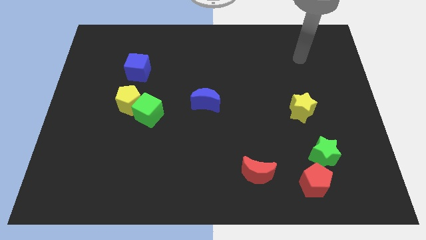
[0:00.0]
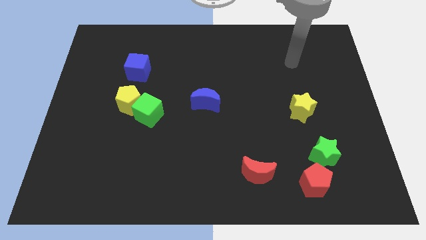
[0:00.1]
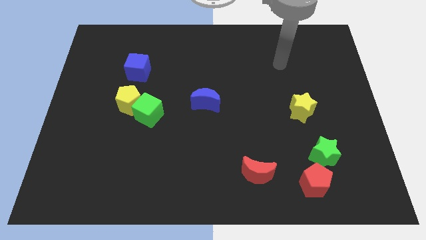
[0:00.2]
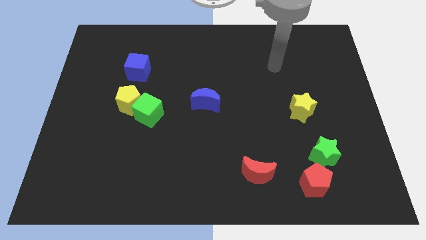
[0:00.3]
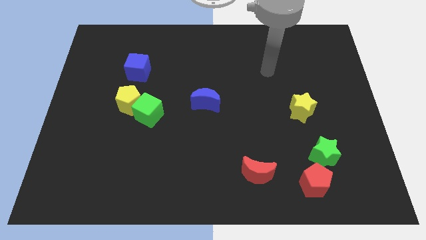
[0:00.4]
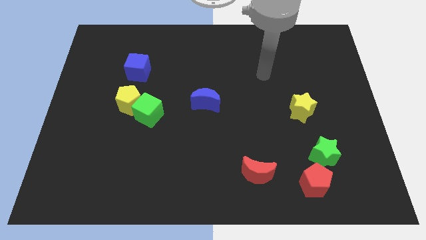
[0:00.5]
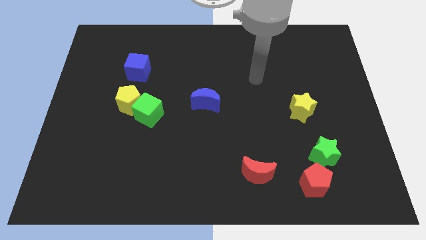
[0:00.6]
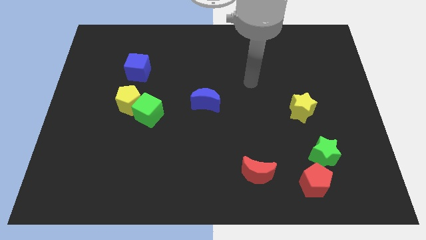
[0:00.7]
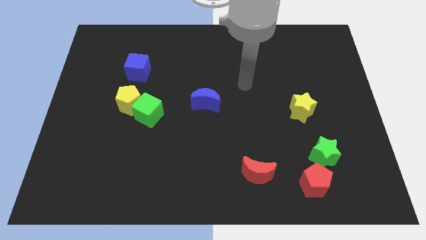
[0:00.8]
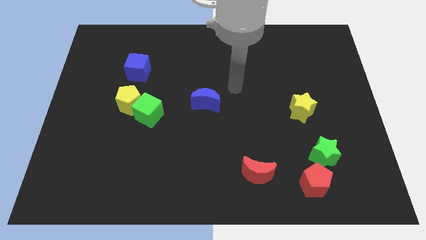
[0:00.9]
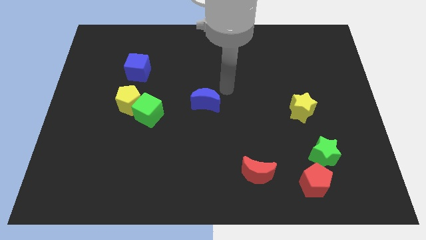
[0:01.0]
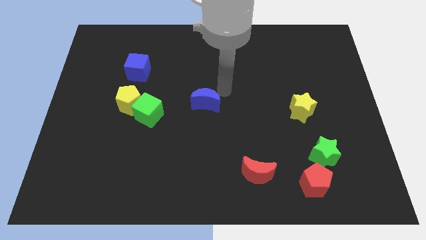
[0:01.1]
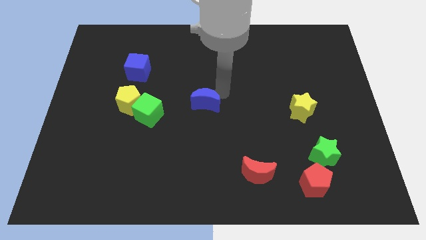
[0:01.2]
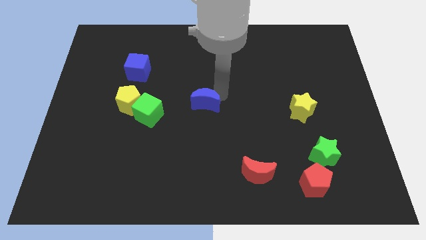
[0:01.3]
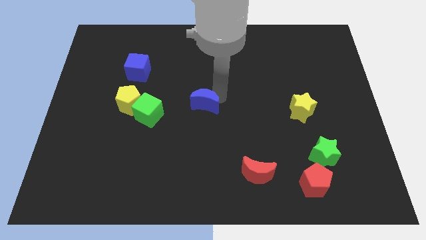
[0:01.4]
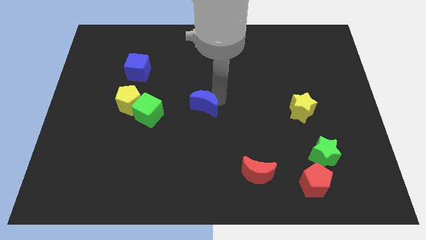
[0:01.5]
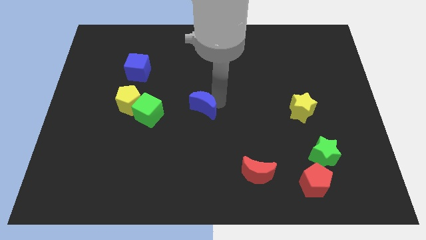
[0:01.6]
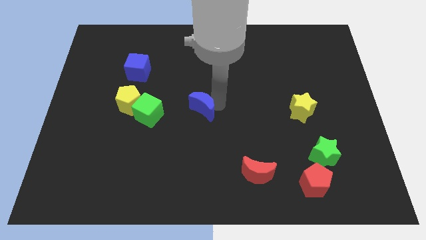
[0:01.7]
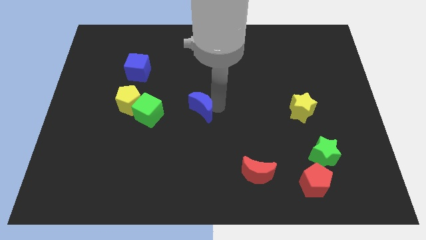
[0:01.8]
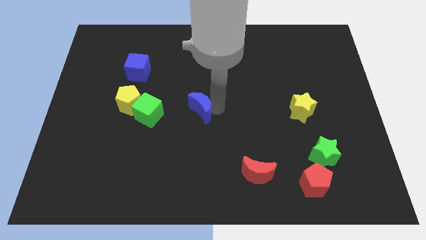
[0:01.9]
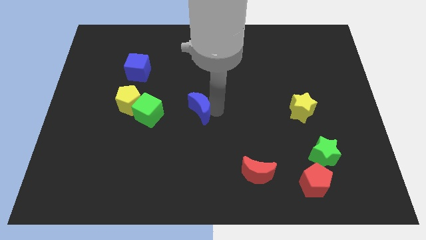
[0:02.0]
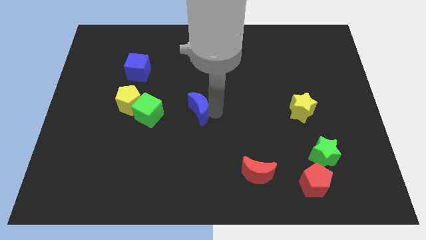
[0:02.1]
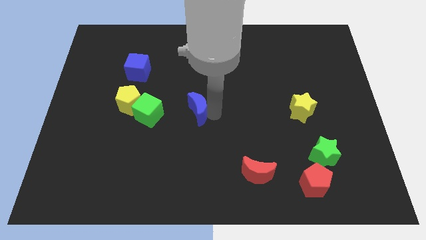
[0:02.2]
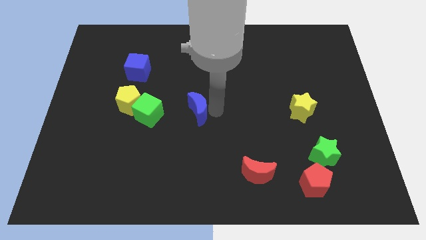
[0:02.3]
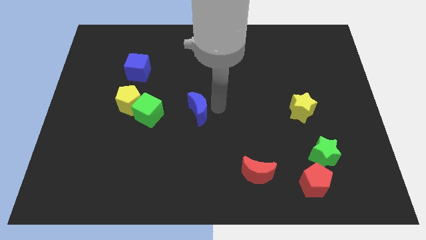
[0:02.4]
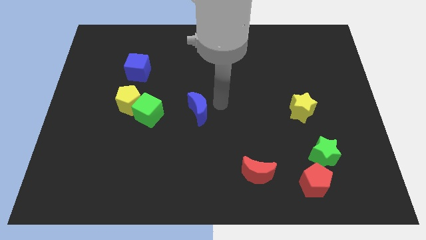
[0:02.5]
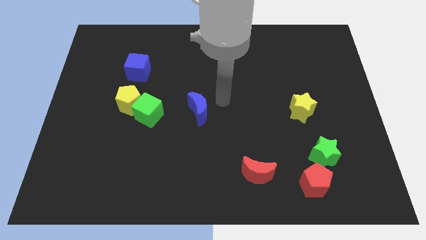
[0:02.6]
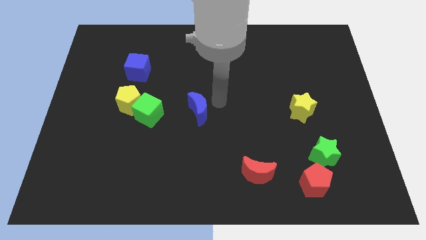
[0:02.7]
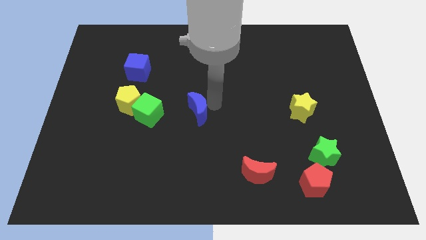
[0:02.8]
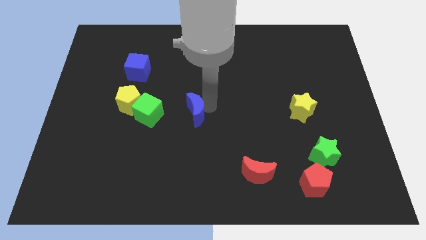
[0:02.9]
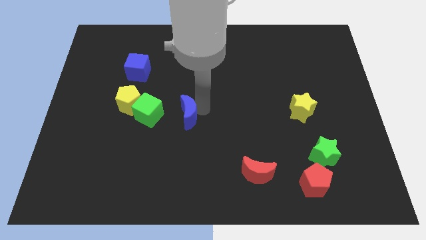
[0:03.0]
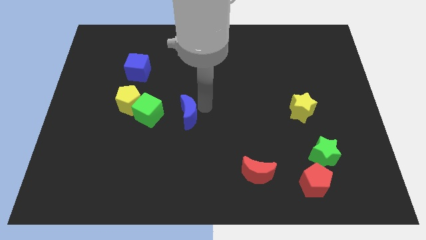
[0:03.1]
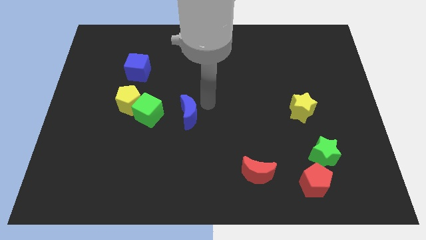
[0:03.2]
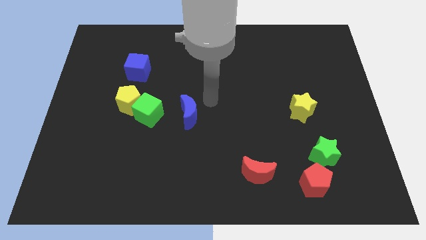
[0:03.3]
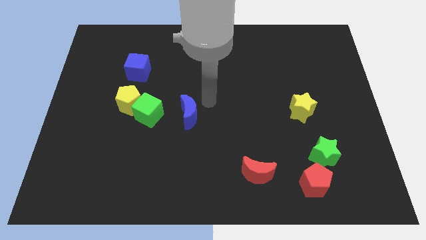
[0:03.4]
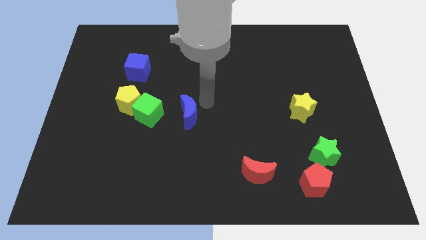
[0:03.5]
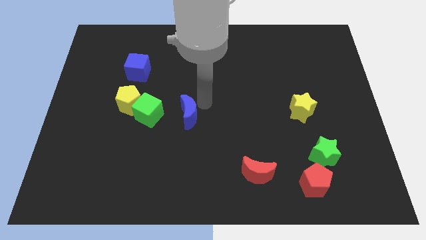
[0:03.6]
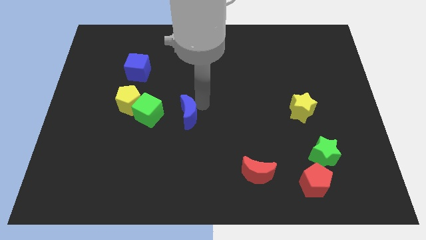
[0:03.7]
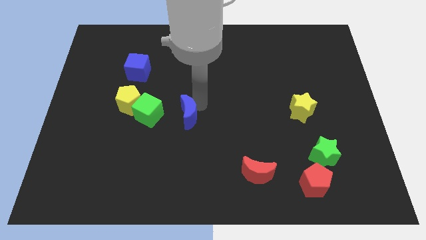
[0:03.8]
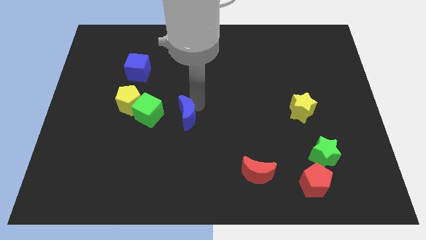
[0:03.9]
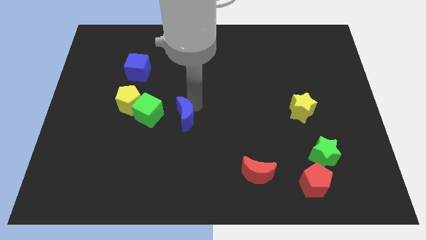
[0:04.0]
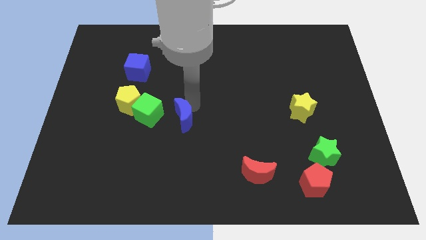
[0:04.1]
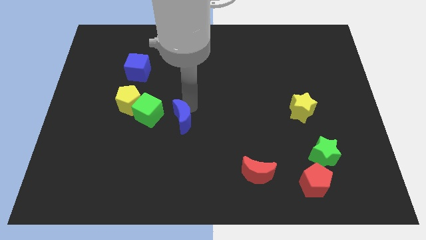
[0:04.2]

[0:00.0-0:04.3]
push the blue moon downwards and to the left somewhat

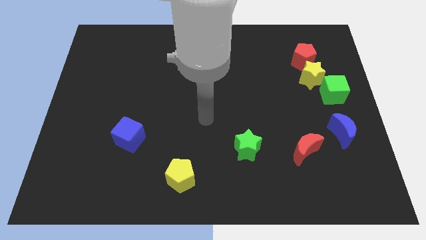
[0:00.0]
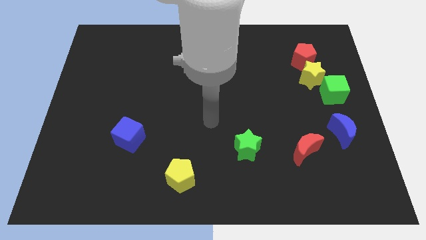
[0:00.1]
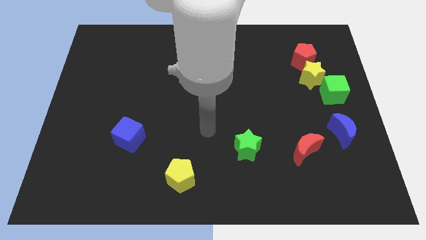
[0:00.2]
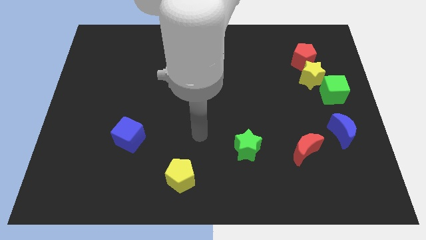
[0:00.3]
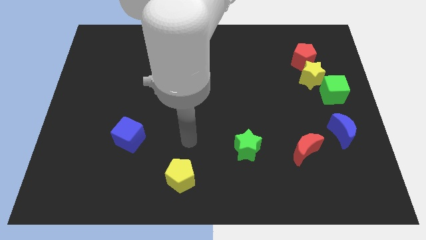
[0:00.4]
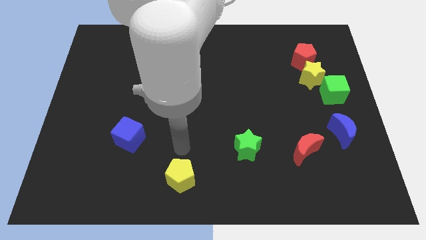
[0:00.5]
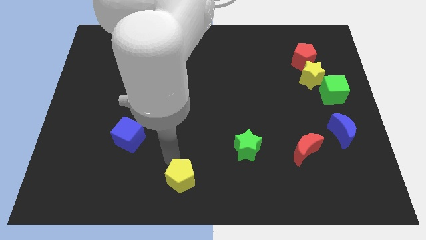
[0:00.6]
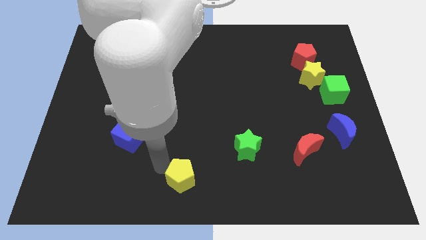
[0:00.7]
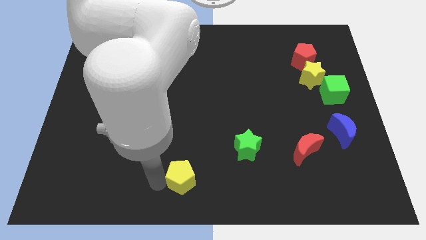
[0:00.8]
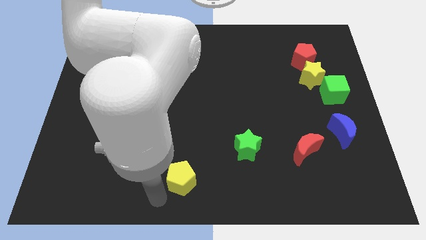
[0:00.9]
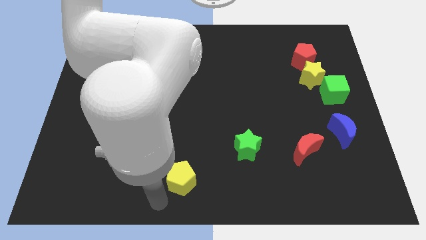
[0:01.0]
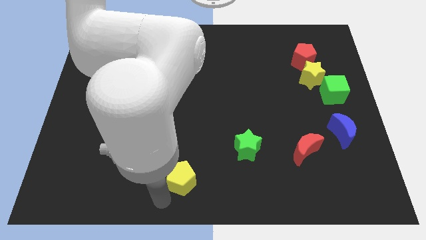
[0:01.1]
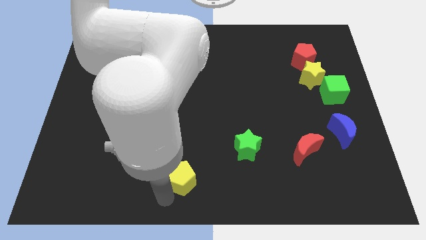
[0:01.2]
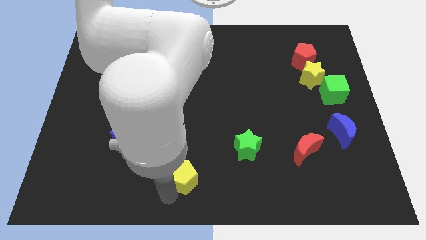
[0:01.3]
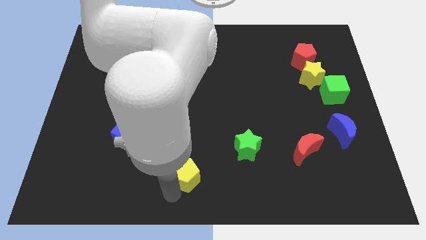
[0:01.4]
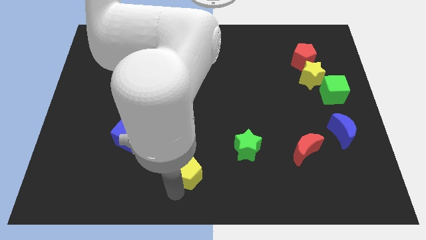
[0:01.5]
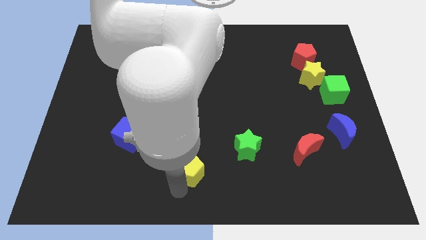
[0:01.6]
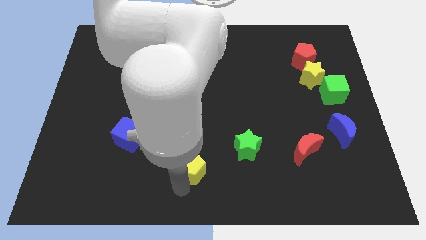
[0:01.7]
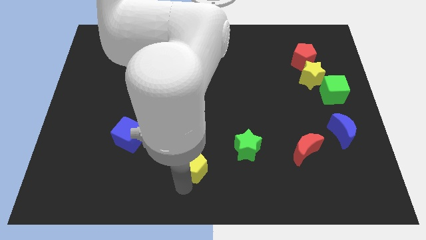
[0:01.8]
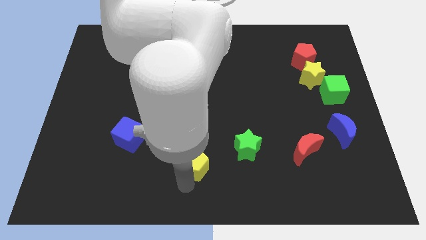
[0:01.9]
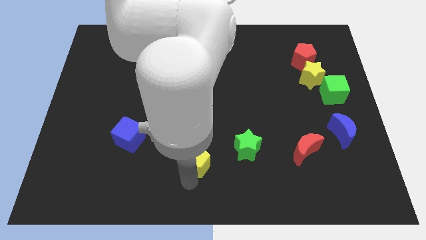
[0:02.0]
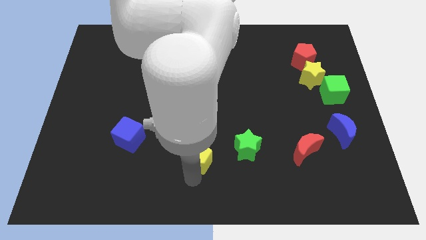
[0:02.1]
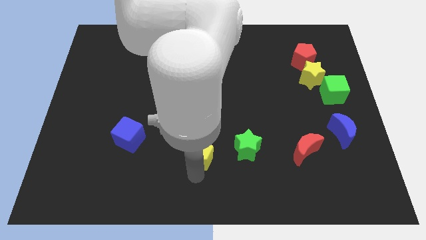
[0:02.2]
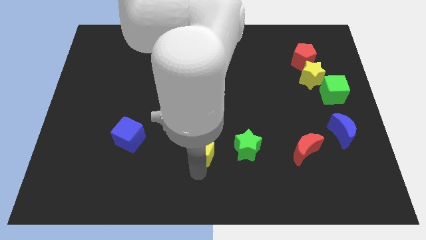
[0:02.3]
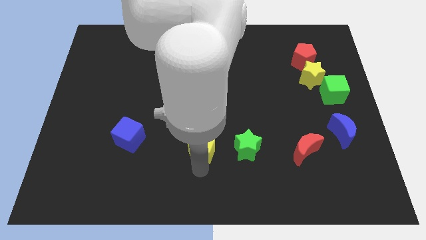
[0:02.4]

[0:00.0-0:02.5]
move the yellow pentagon somewhat upwards and then to the right

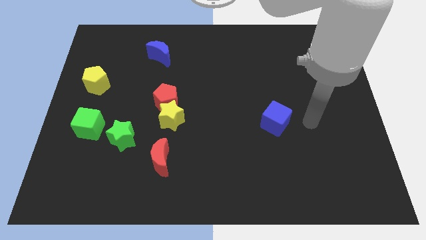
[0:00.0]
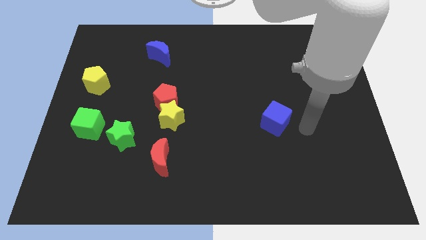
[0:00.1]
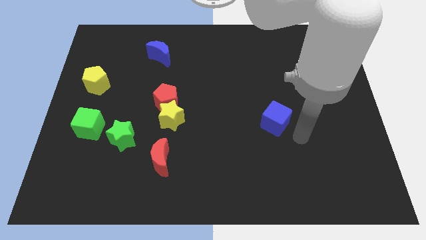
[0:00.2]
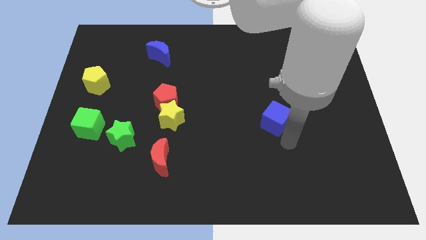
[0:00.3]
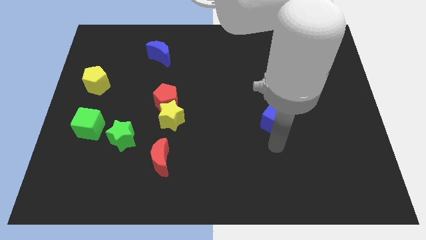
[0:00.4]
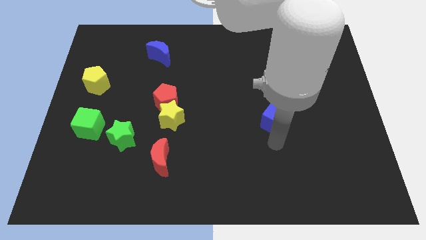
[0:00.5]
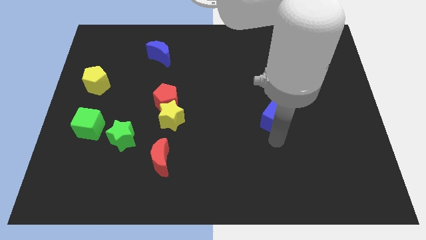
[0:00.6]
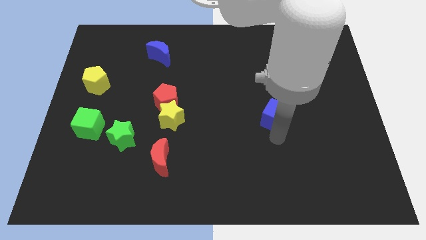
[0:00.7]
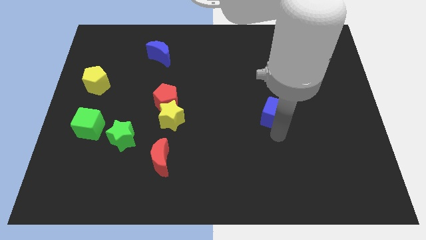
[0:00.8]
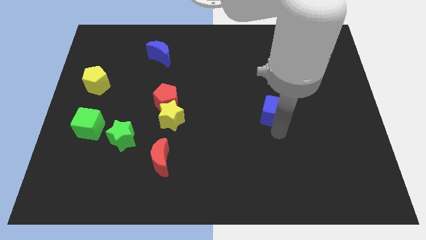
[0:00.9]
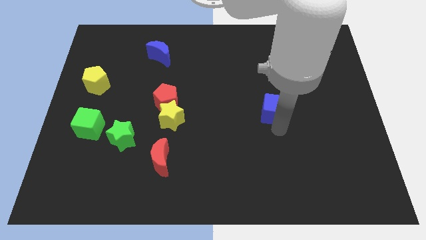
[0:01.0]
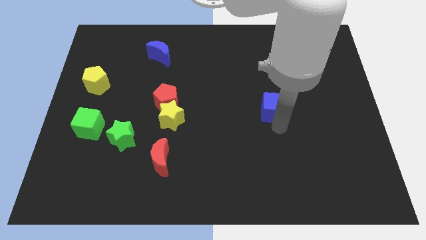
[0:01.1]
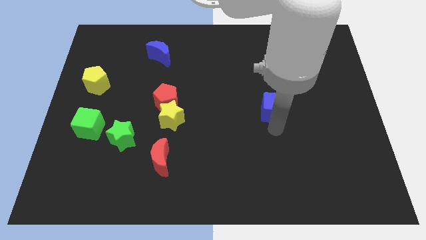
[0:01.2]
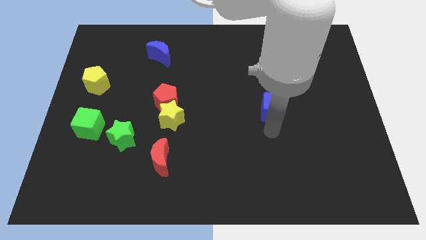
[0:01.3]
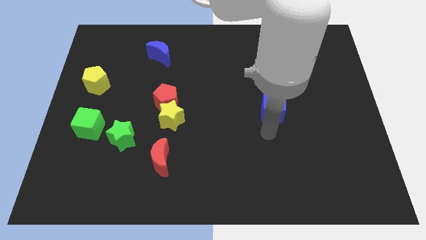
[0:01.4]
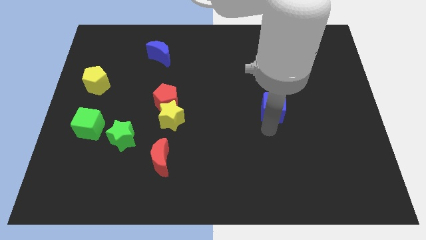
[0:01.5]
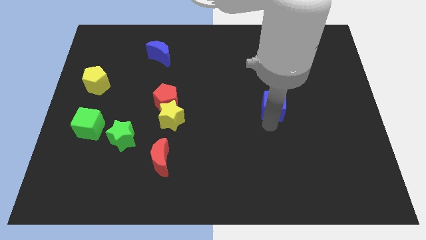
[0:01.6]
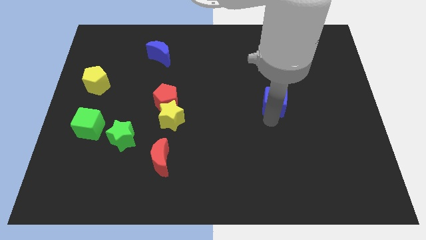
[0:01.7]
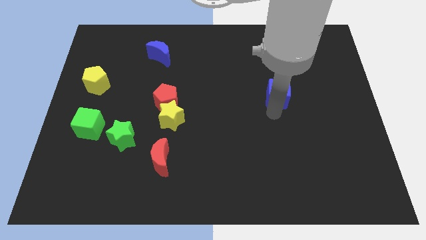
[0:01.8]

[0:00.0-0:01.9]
slightly push the blue cube upwards
